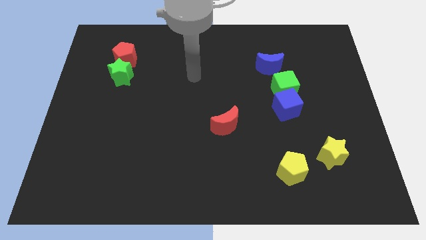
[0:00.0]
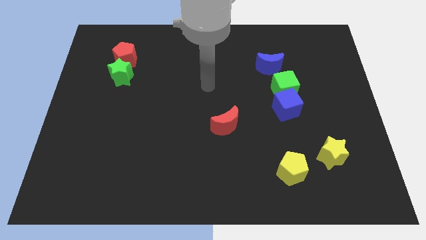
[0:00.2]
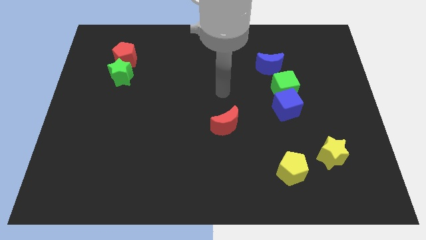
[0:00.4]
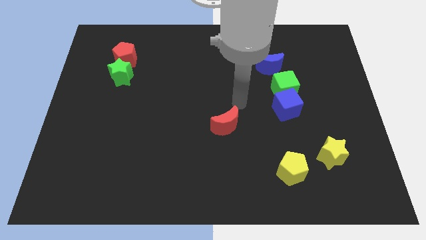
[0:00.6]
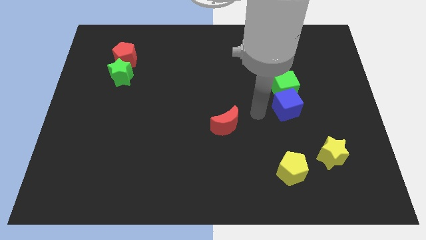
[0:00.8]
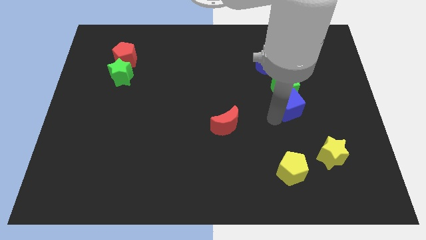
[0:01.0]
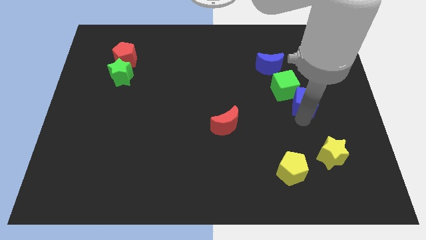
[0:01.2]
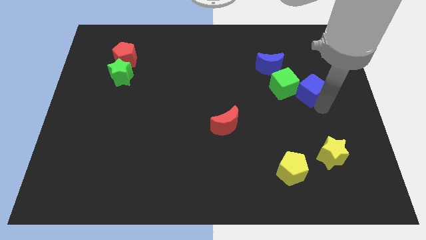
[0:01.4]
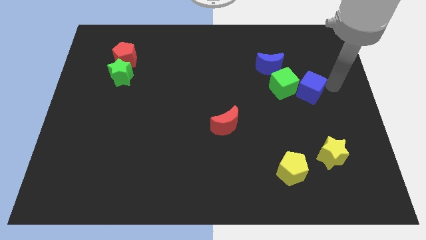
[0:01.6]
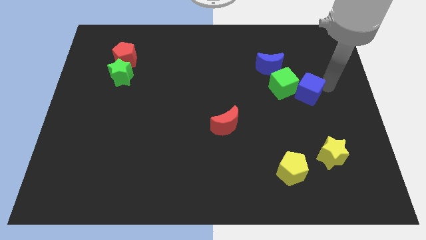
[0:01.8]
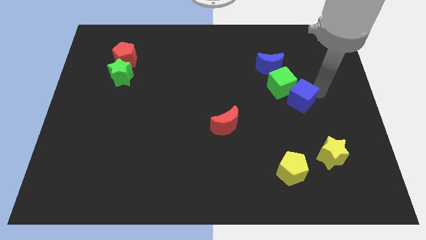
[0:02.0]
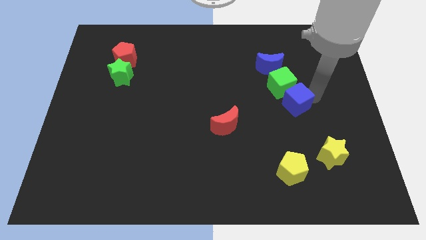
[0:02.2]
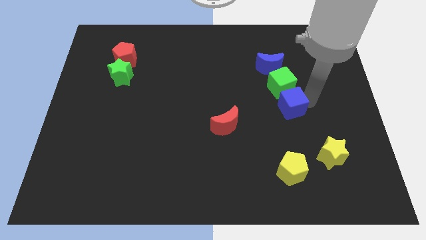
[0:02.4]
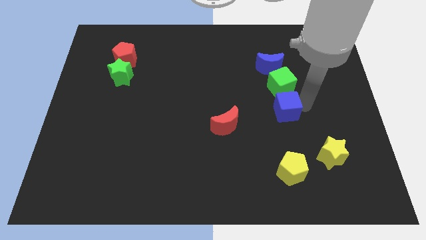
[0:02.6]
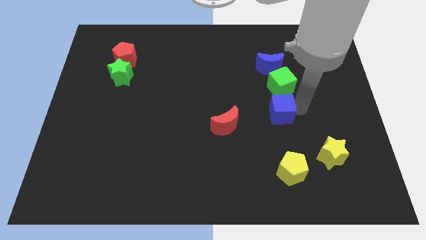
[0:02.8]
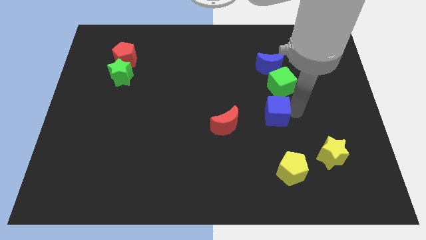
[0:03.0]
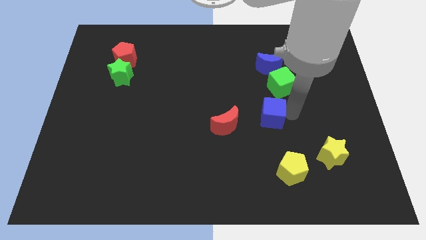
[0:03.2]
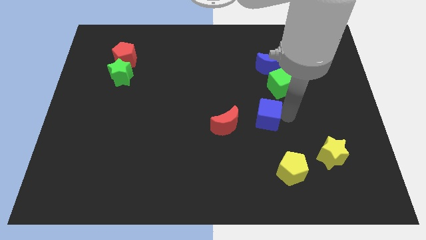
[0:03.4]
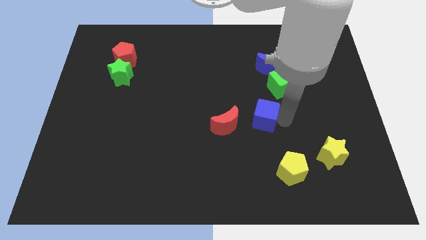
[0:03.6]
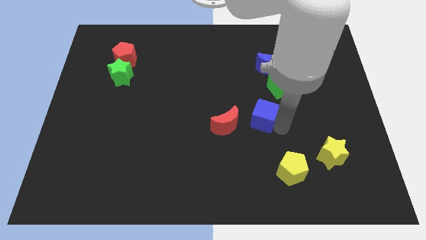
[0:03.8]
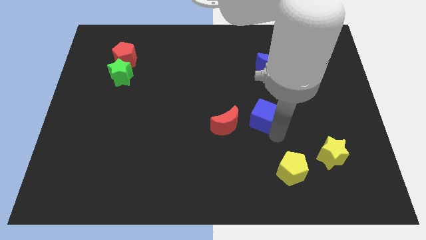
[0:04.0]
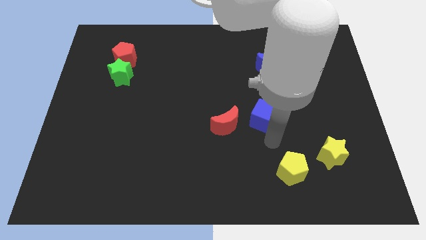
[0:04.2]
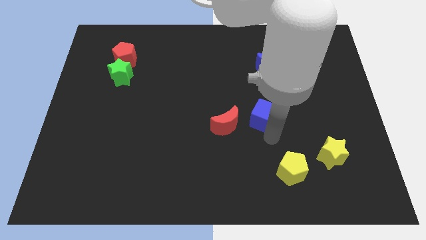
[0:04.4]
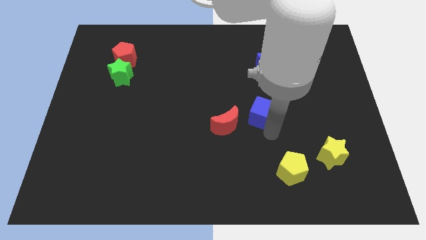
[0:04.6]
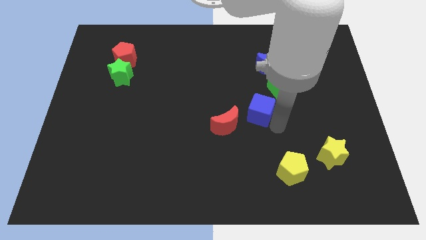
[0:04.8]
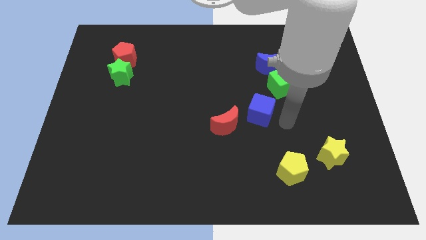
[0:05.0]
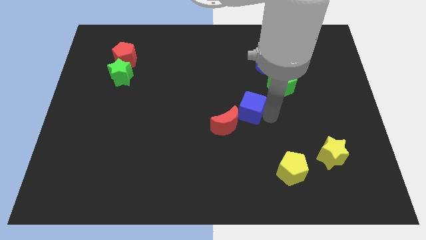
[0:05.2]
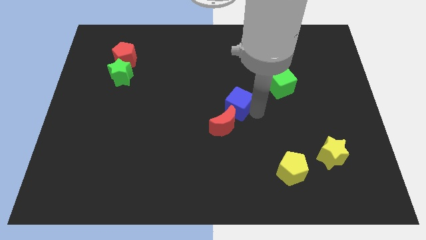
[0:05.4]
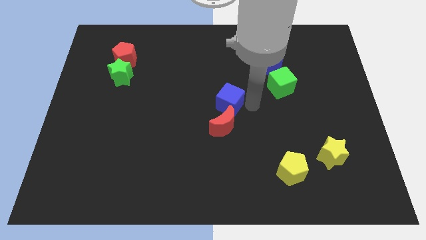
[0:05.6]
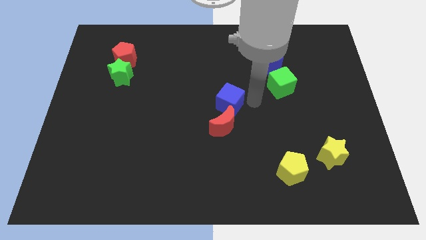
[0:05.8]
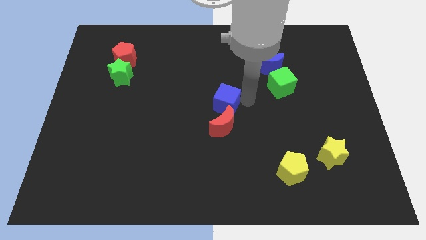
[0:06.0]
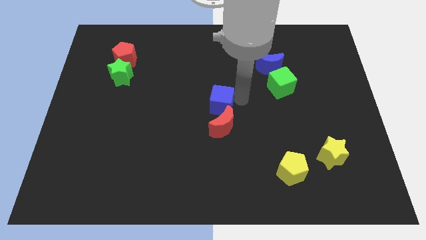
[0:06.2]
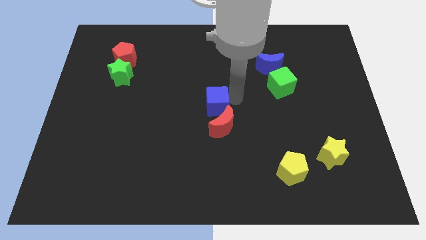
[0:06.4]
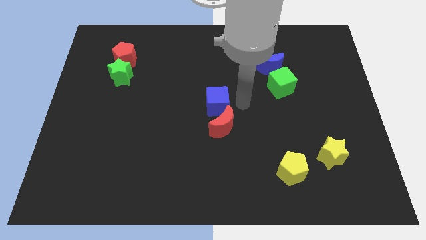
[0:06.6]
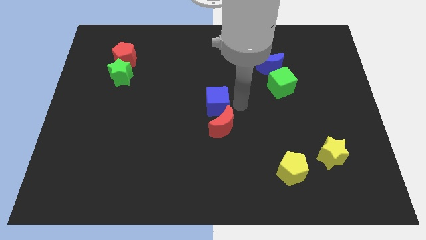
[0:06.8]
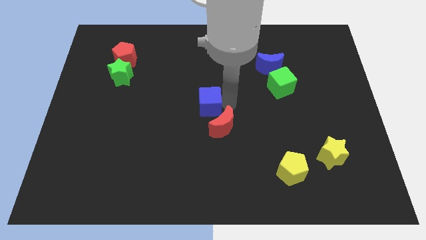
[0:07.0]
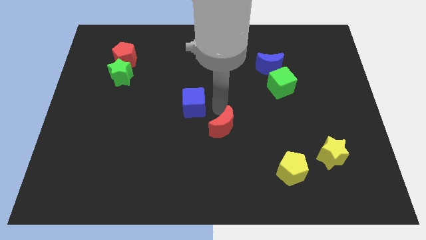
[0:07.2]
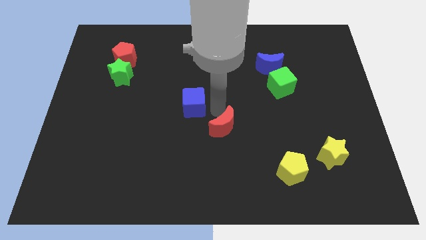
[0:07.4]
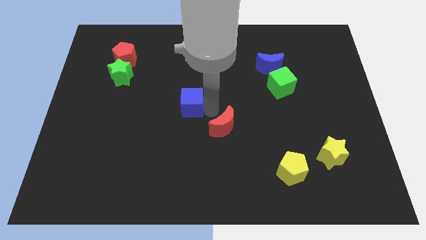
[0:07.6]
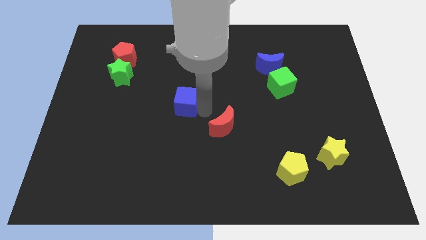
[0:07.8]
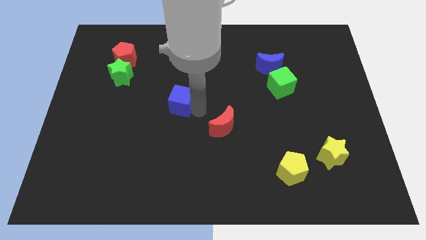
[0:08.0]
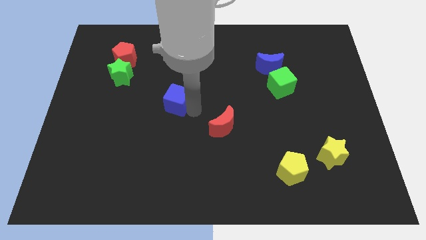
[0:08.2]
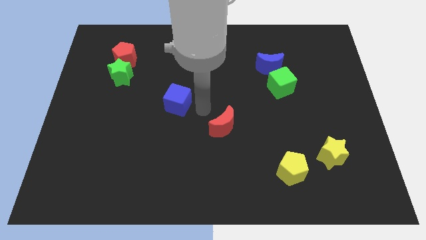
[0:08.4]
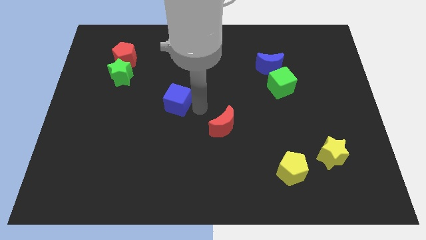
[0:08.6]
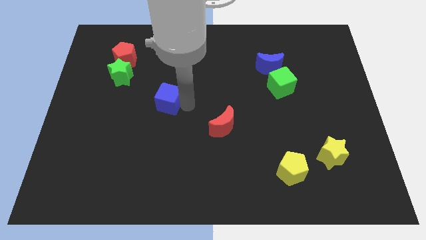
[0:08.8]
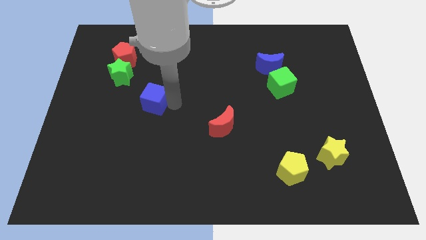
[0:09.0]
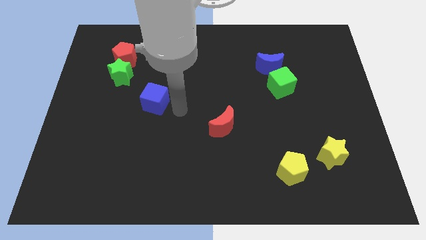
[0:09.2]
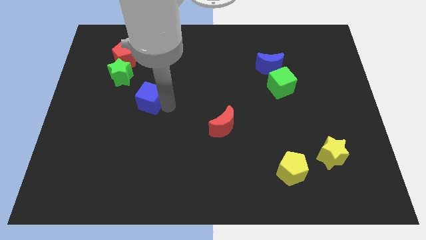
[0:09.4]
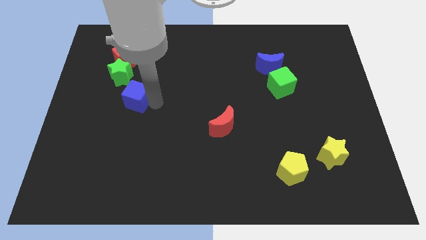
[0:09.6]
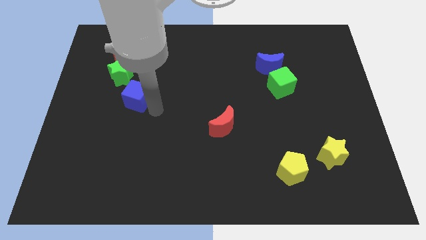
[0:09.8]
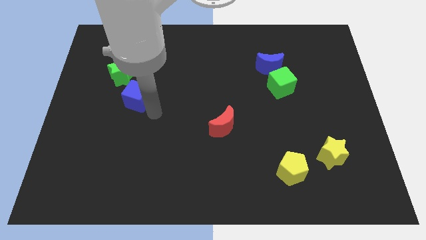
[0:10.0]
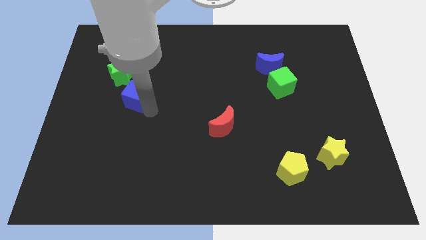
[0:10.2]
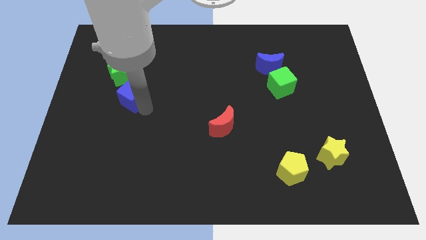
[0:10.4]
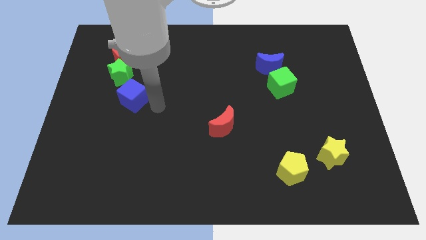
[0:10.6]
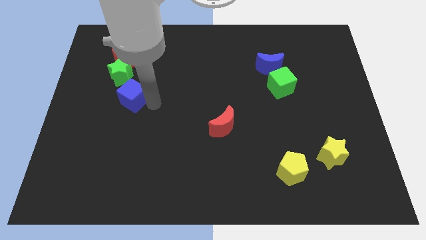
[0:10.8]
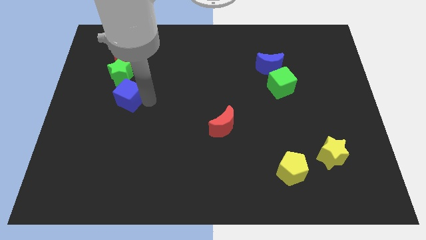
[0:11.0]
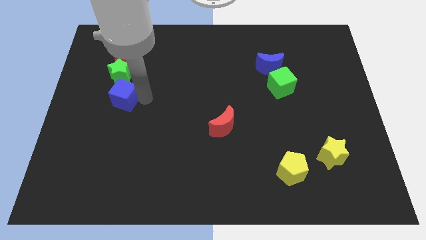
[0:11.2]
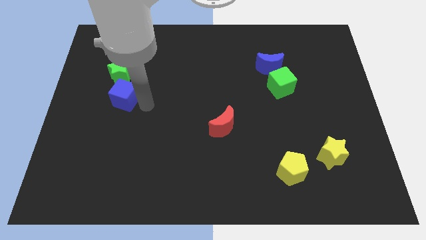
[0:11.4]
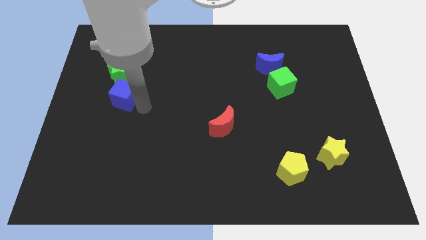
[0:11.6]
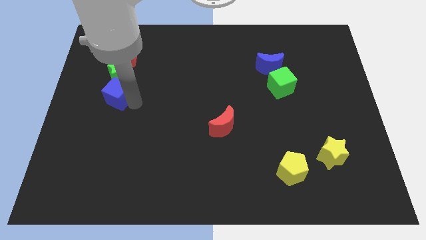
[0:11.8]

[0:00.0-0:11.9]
push the blue cube diagonally down and to the left of the green star
